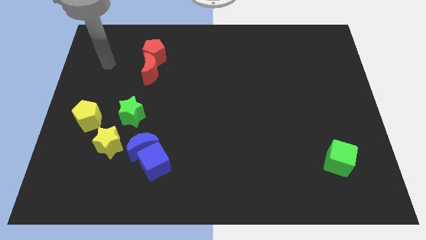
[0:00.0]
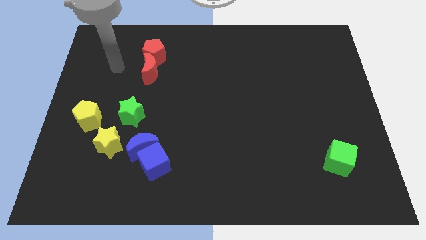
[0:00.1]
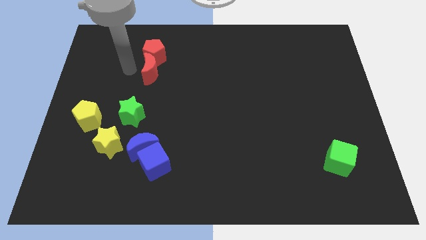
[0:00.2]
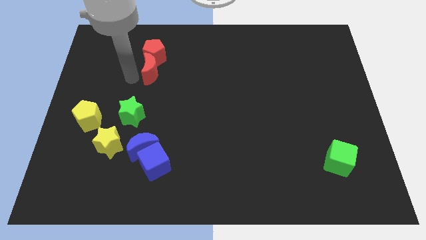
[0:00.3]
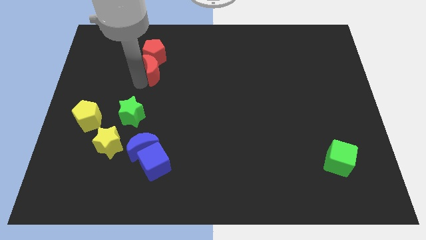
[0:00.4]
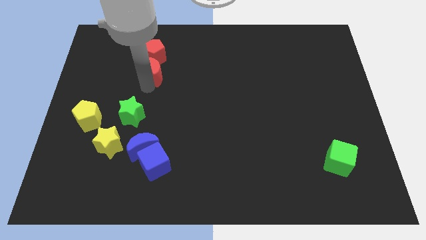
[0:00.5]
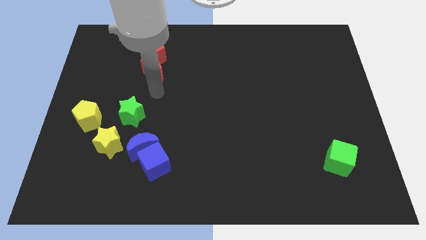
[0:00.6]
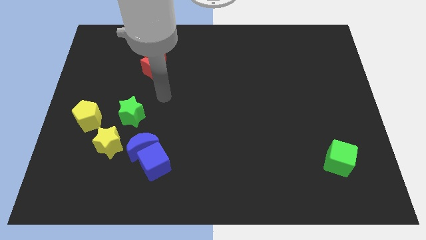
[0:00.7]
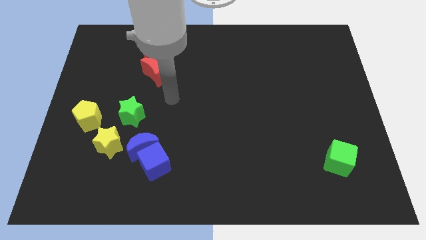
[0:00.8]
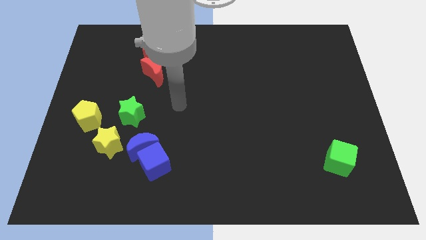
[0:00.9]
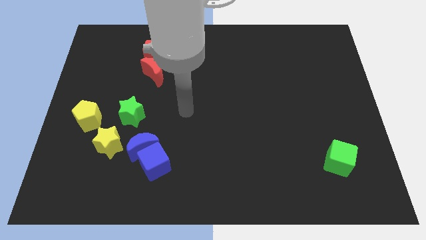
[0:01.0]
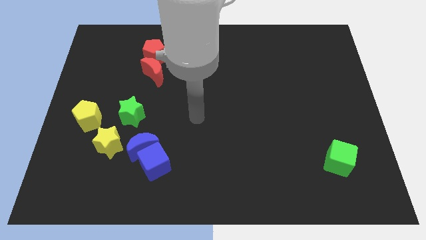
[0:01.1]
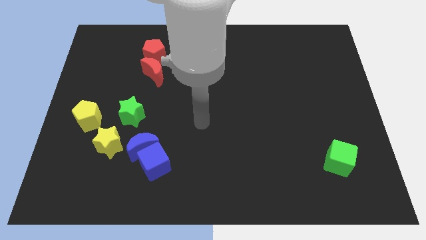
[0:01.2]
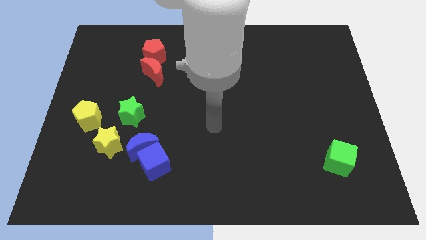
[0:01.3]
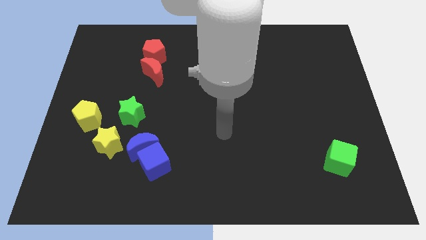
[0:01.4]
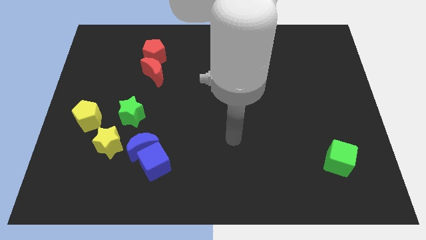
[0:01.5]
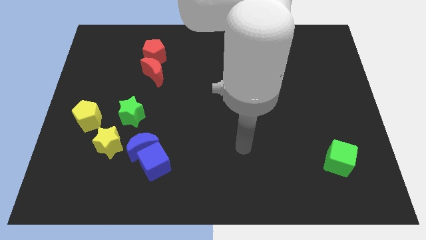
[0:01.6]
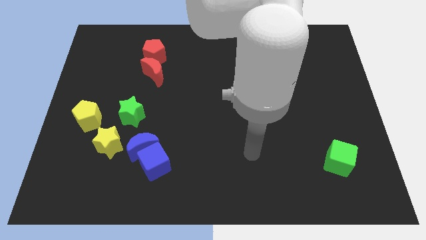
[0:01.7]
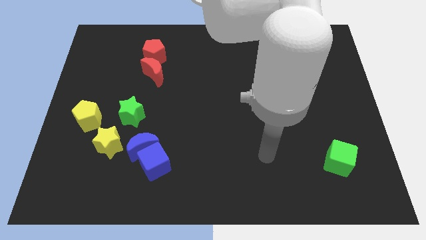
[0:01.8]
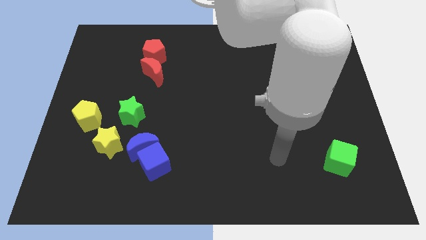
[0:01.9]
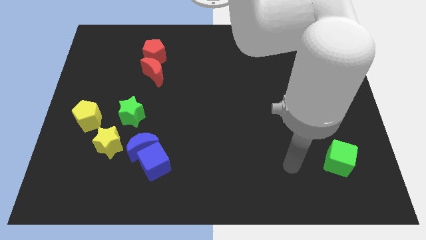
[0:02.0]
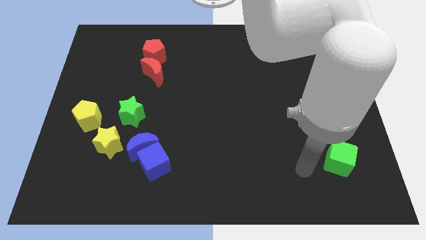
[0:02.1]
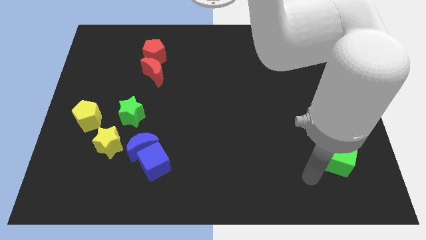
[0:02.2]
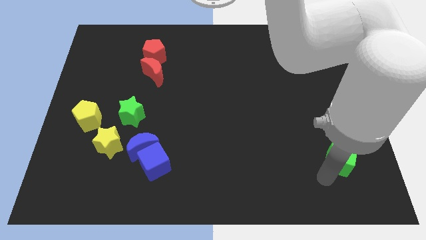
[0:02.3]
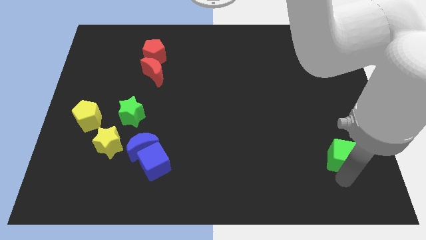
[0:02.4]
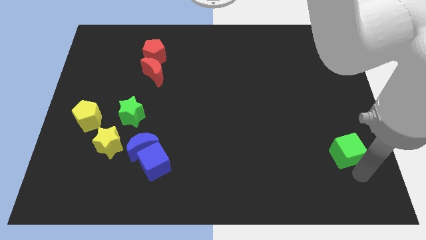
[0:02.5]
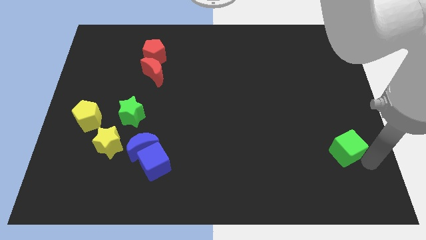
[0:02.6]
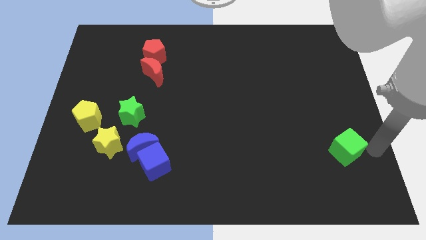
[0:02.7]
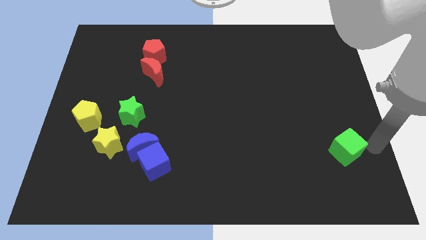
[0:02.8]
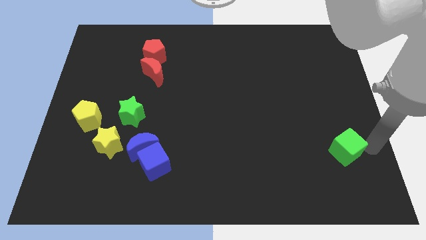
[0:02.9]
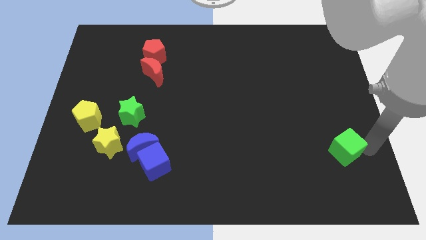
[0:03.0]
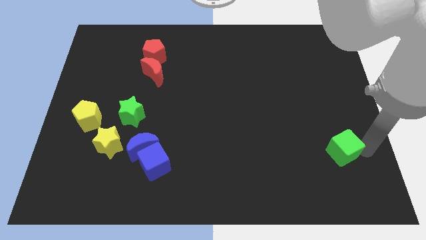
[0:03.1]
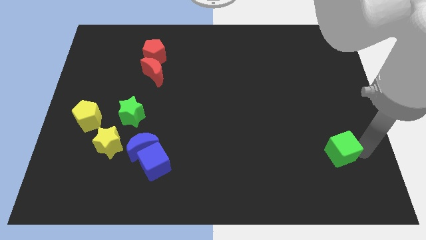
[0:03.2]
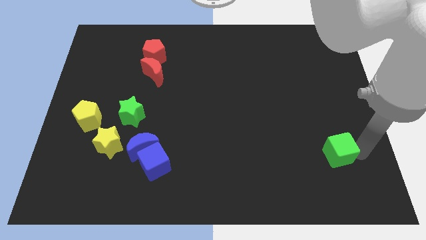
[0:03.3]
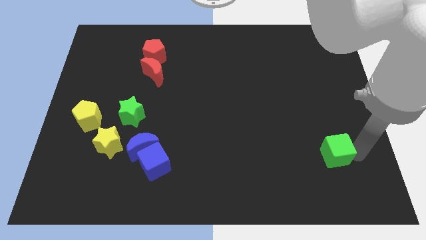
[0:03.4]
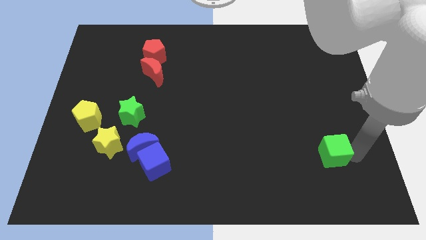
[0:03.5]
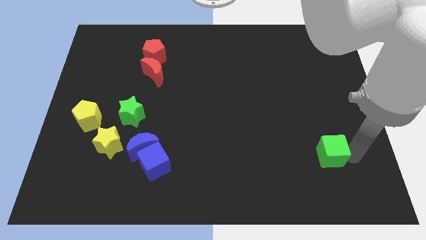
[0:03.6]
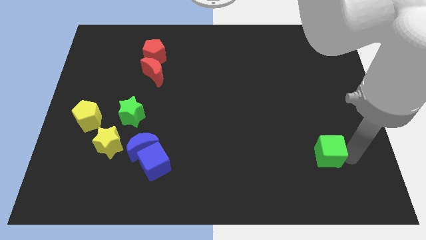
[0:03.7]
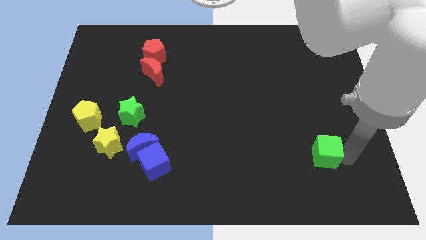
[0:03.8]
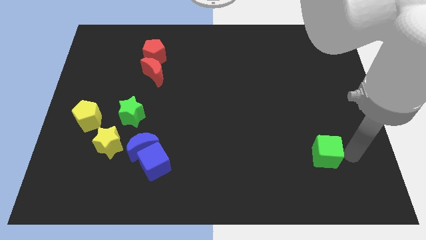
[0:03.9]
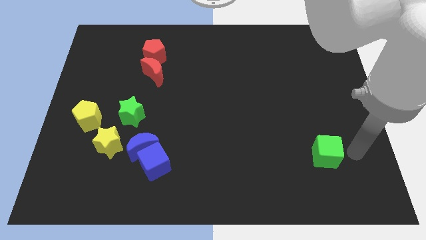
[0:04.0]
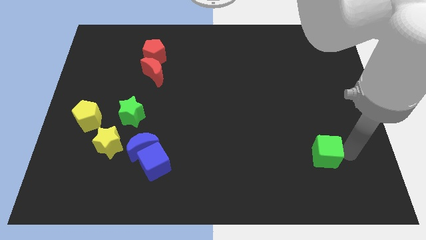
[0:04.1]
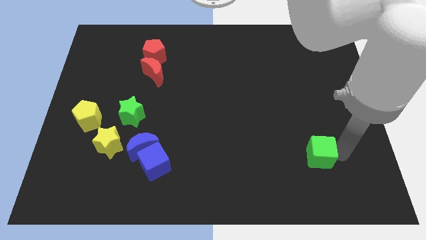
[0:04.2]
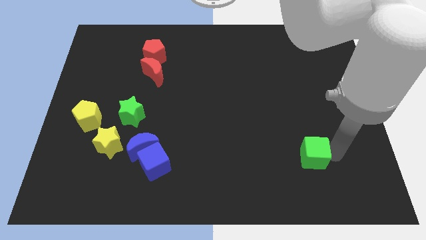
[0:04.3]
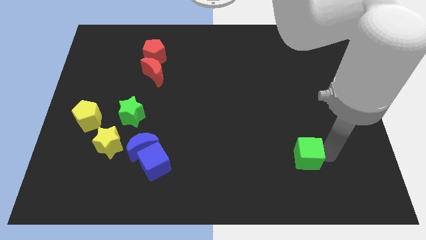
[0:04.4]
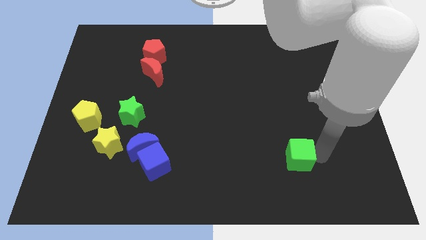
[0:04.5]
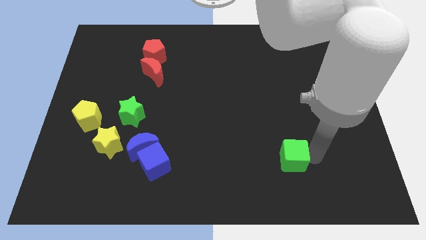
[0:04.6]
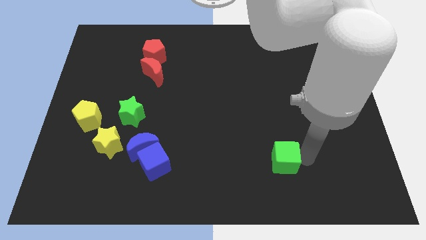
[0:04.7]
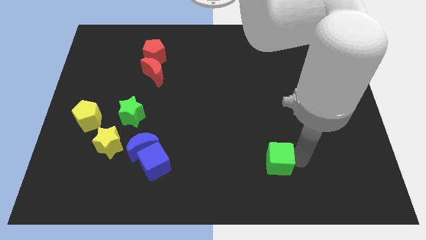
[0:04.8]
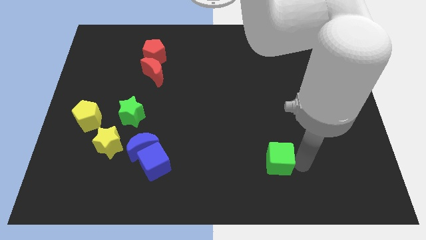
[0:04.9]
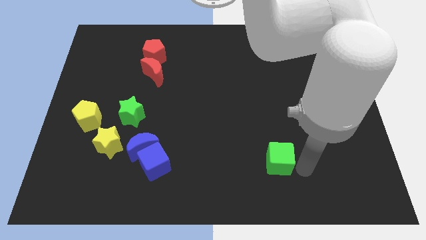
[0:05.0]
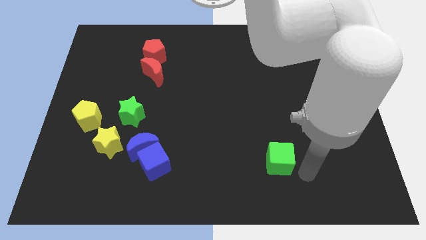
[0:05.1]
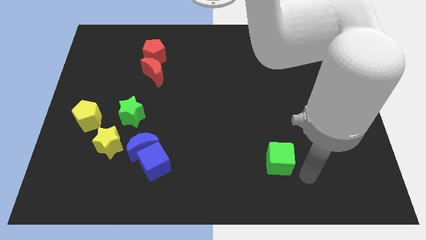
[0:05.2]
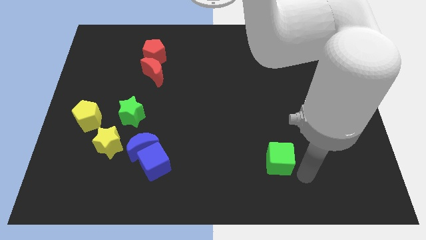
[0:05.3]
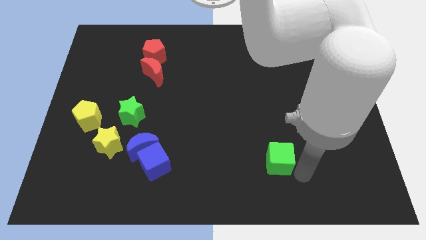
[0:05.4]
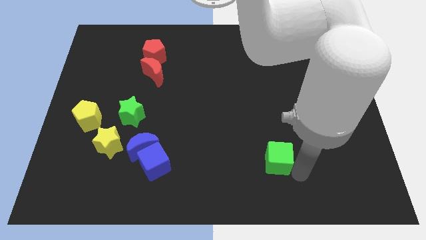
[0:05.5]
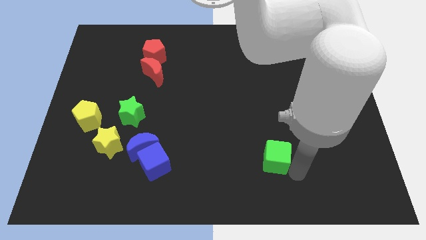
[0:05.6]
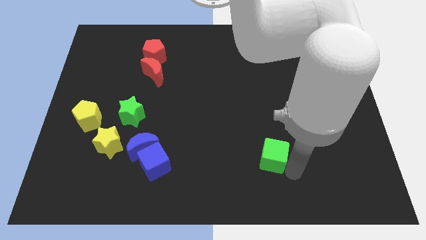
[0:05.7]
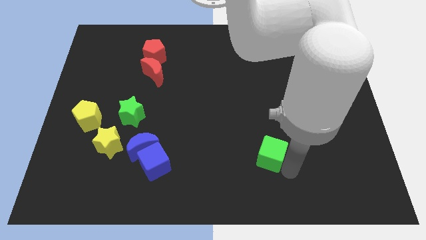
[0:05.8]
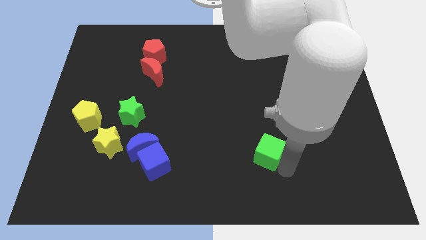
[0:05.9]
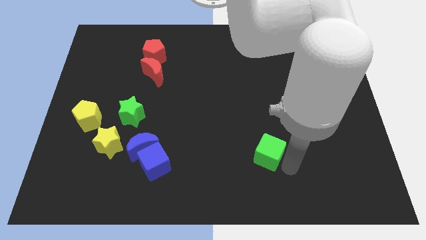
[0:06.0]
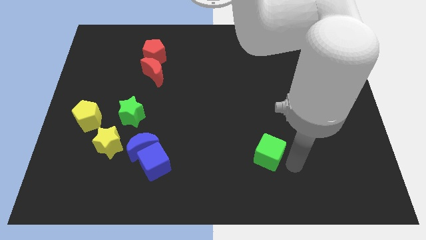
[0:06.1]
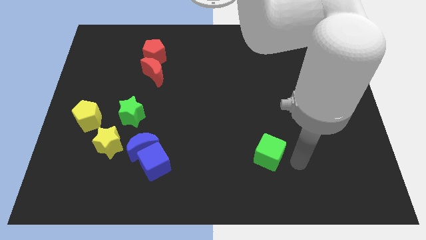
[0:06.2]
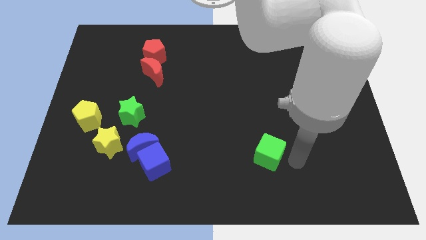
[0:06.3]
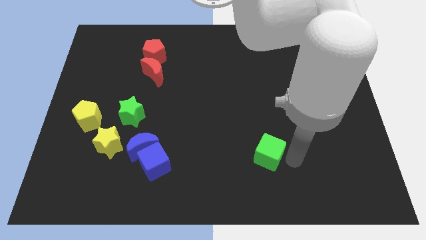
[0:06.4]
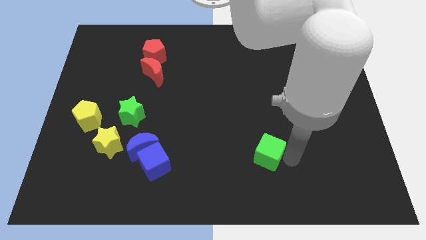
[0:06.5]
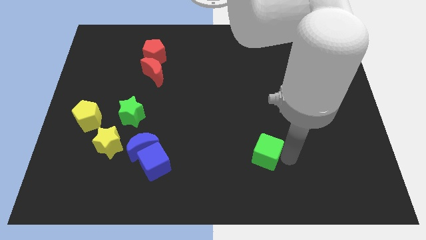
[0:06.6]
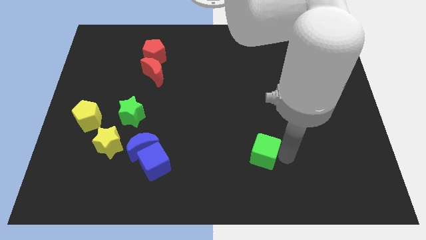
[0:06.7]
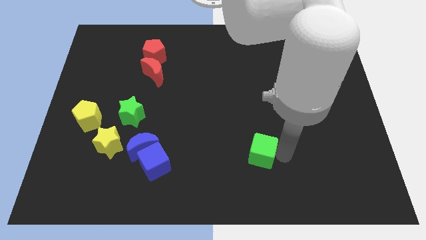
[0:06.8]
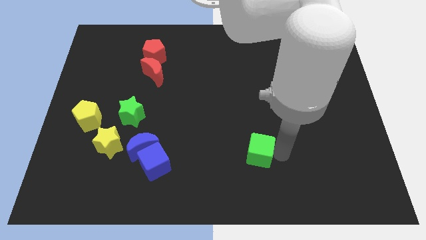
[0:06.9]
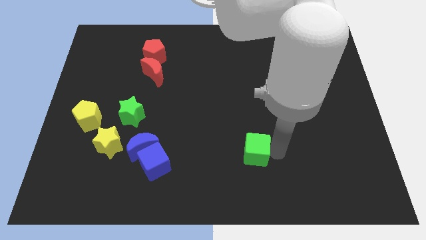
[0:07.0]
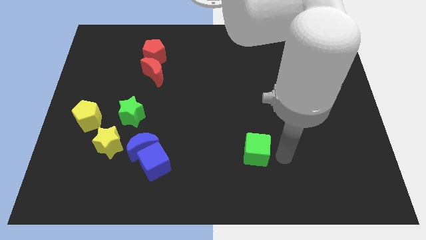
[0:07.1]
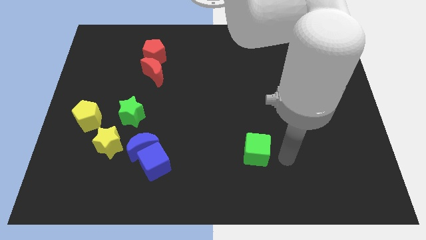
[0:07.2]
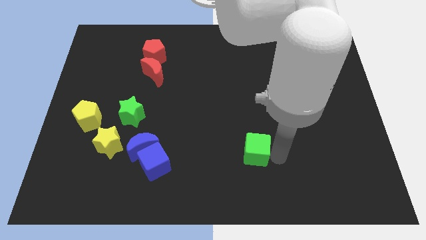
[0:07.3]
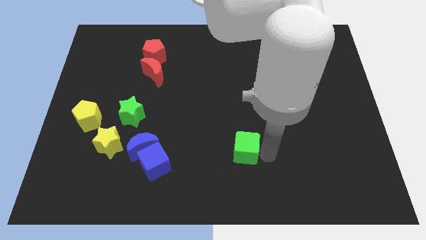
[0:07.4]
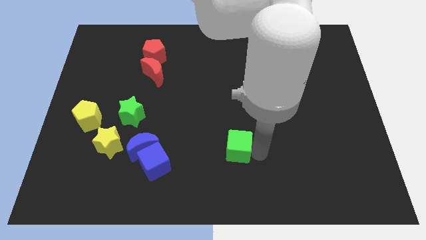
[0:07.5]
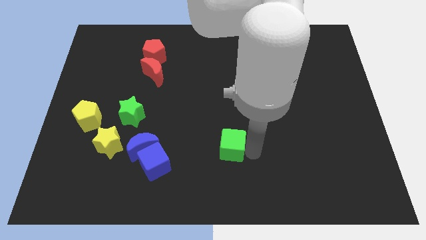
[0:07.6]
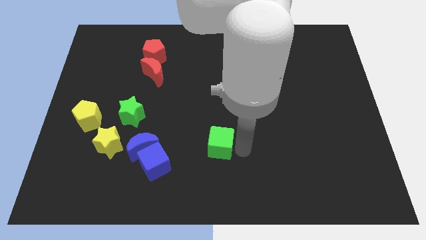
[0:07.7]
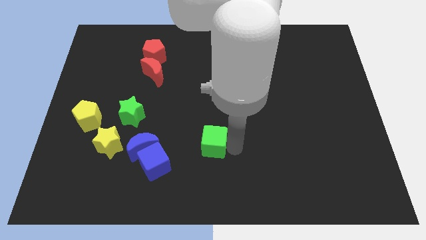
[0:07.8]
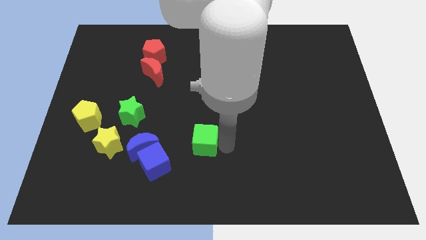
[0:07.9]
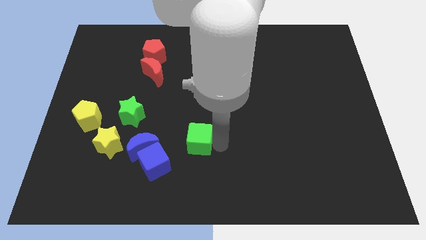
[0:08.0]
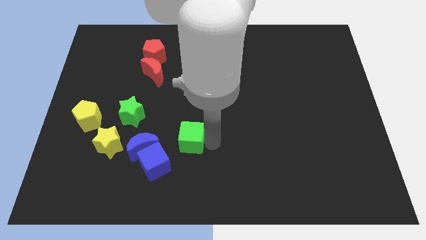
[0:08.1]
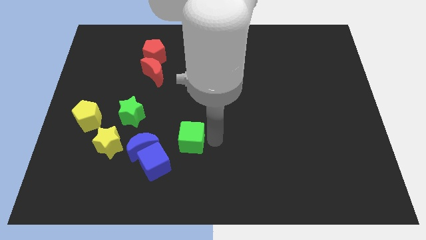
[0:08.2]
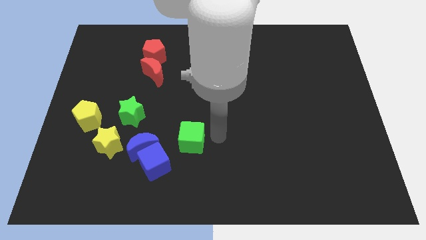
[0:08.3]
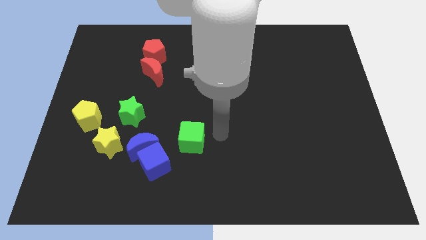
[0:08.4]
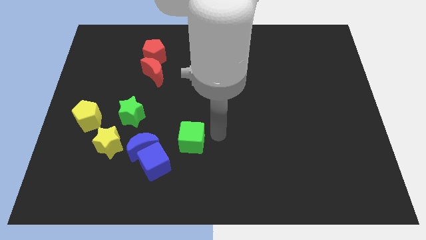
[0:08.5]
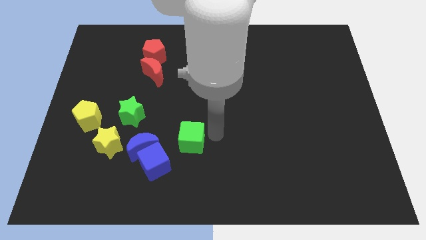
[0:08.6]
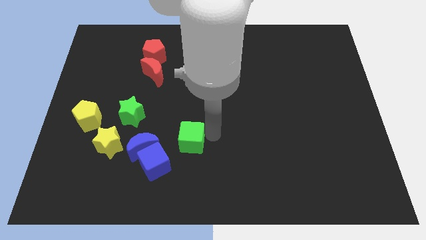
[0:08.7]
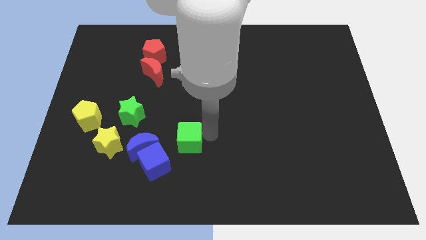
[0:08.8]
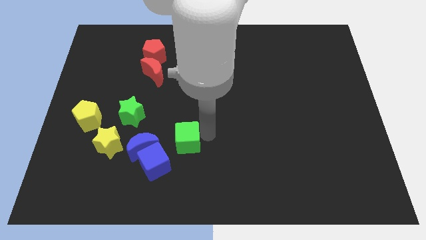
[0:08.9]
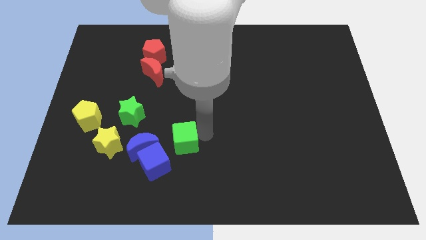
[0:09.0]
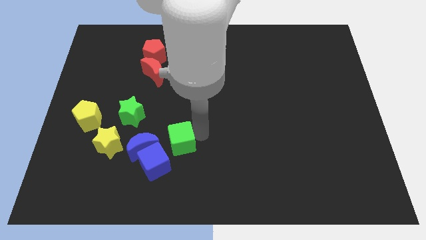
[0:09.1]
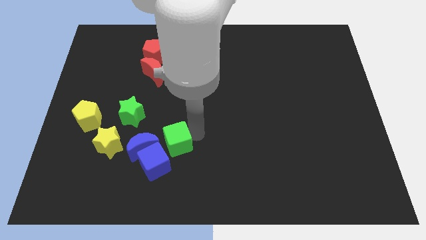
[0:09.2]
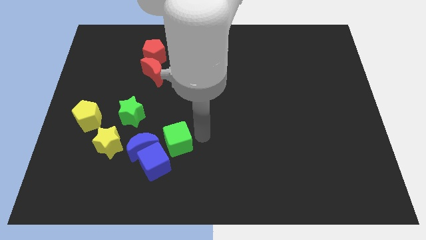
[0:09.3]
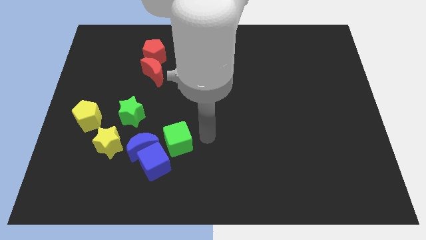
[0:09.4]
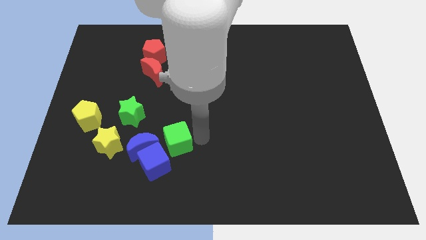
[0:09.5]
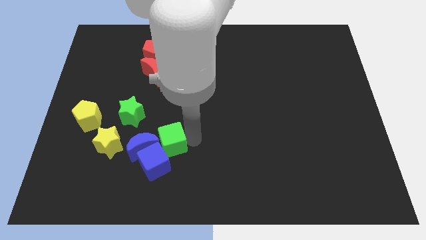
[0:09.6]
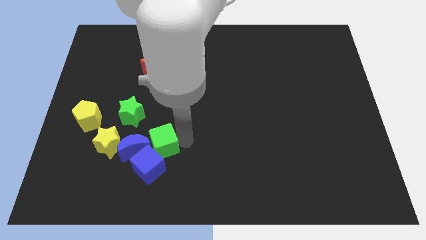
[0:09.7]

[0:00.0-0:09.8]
slide the green cube close to the blue moon
